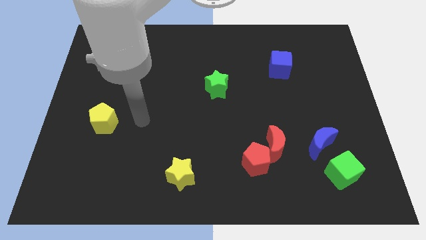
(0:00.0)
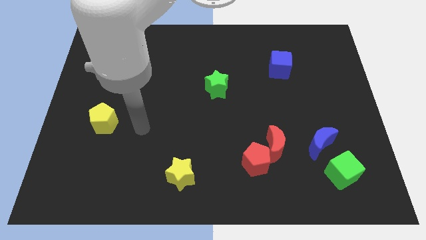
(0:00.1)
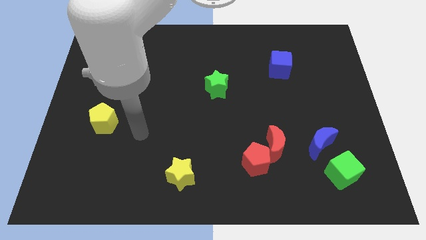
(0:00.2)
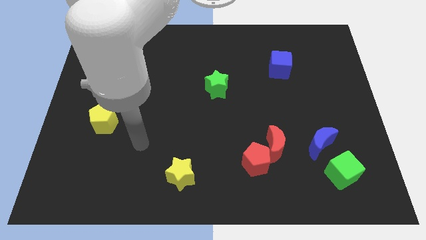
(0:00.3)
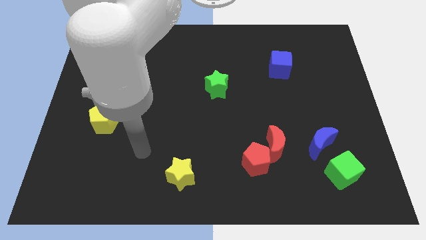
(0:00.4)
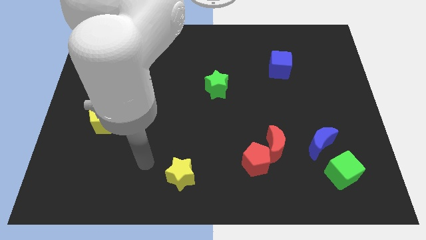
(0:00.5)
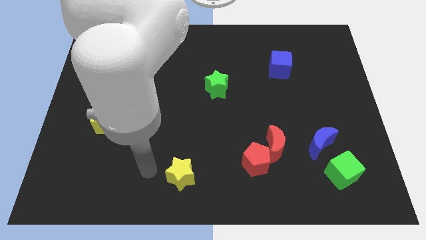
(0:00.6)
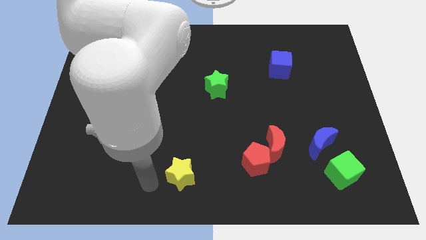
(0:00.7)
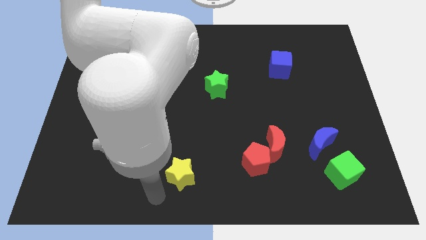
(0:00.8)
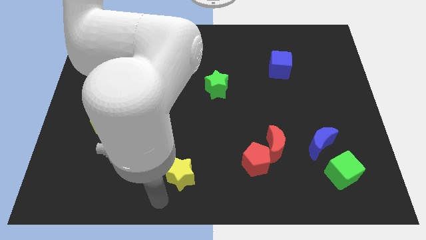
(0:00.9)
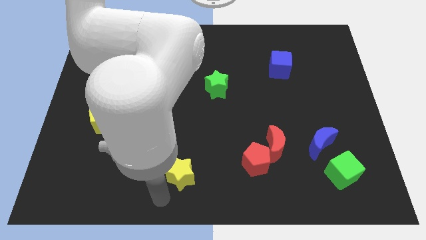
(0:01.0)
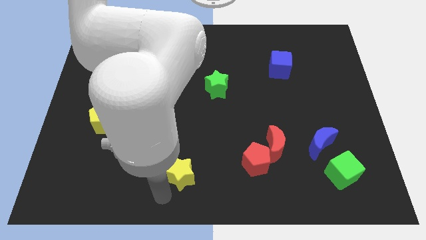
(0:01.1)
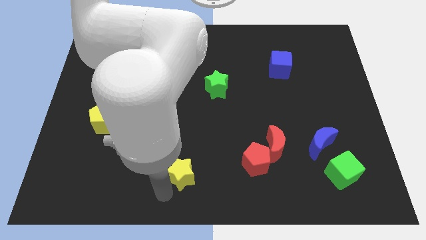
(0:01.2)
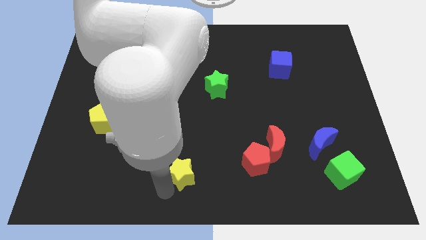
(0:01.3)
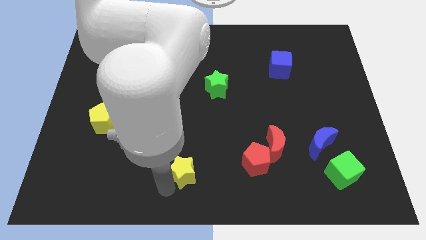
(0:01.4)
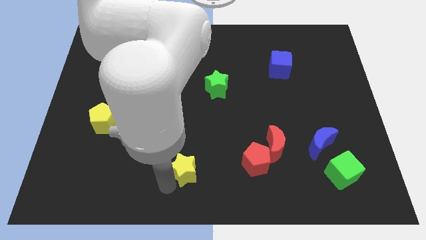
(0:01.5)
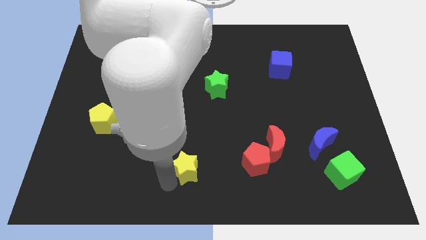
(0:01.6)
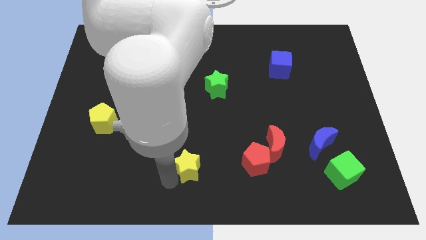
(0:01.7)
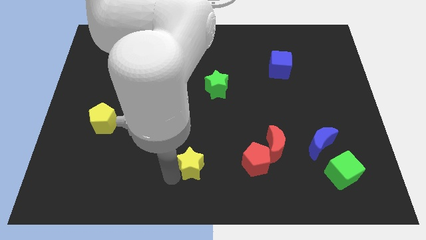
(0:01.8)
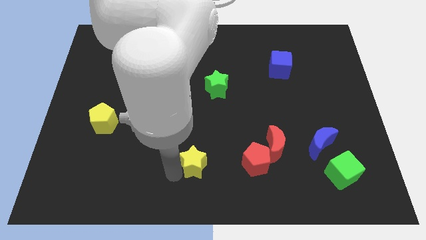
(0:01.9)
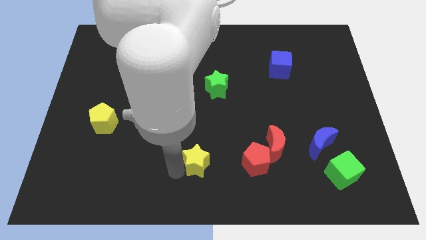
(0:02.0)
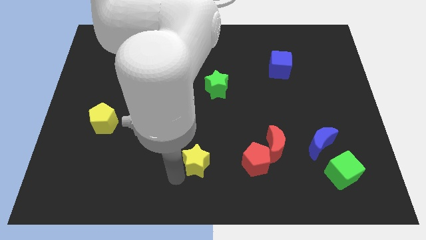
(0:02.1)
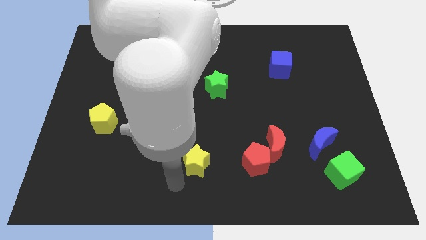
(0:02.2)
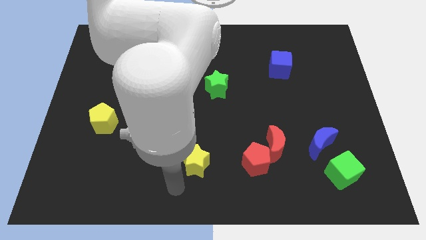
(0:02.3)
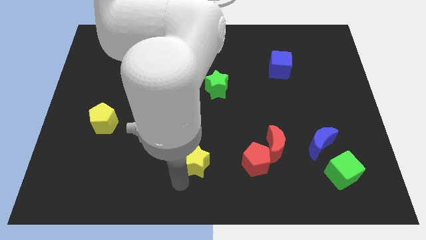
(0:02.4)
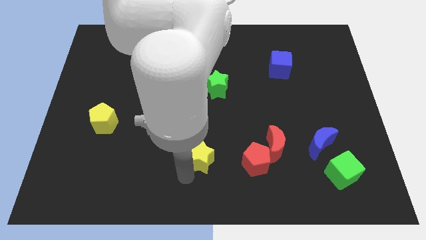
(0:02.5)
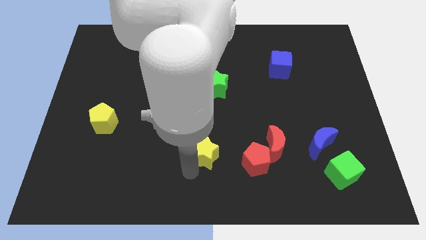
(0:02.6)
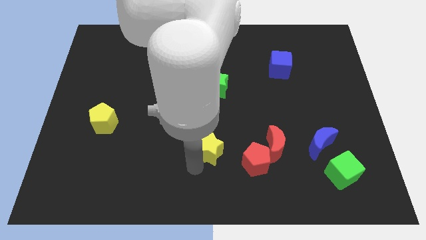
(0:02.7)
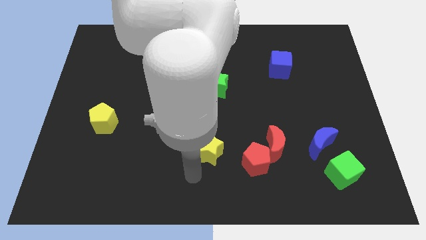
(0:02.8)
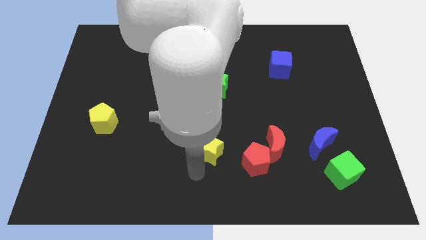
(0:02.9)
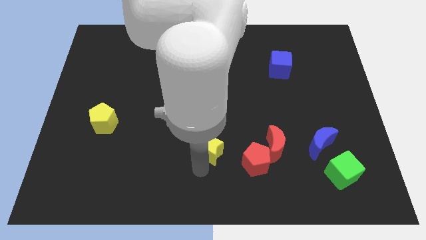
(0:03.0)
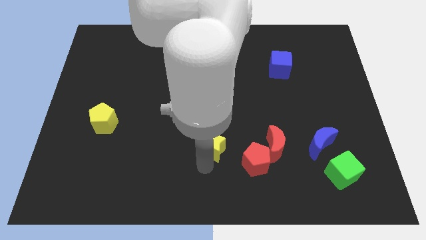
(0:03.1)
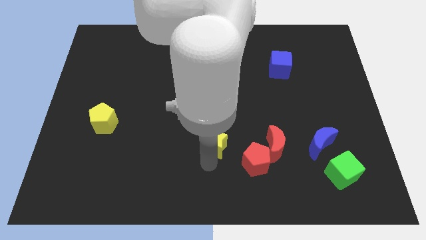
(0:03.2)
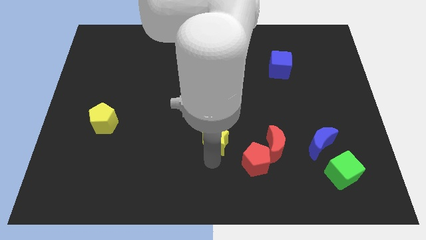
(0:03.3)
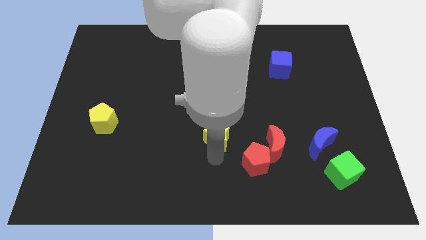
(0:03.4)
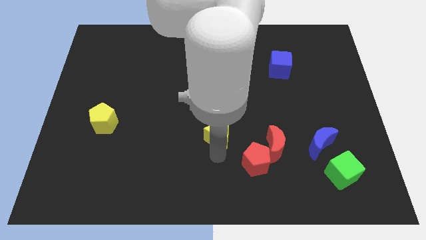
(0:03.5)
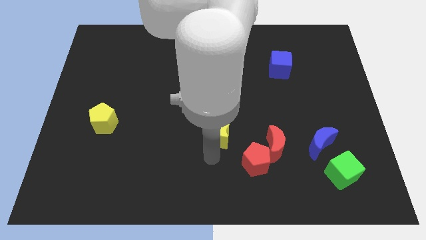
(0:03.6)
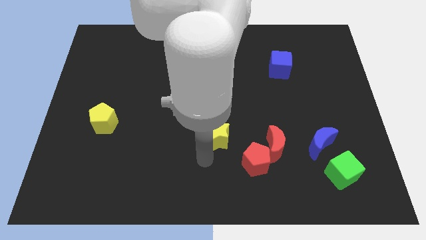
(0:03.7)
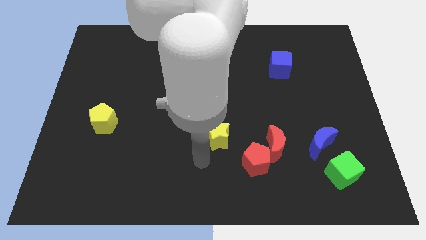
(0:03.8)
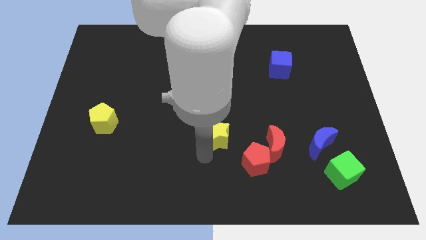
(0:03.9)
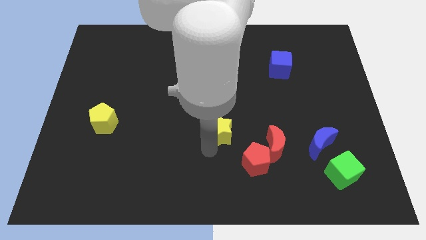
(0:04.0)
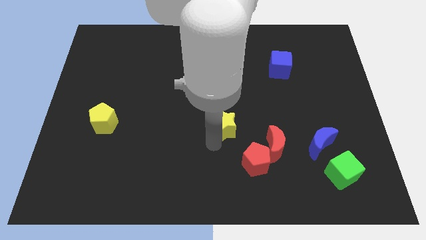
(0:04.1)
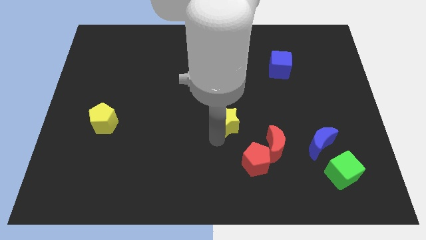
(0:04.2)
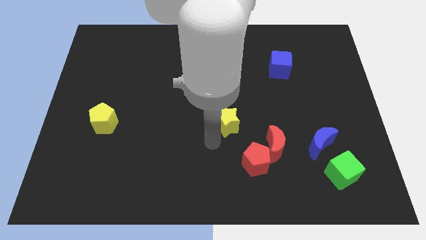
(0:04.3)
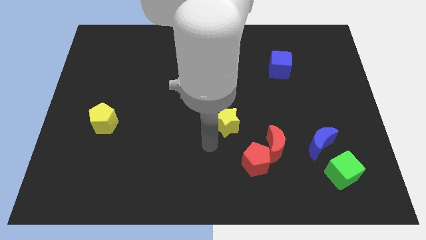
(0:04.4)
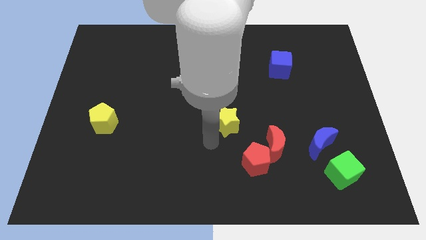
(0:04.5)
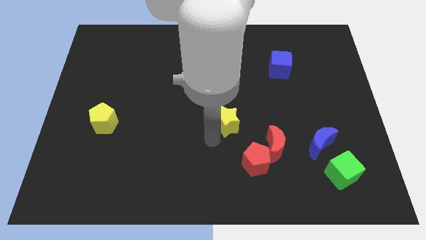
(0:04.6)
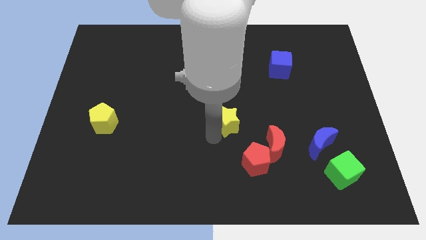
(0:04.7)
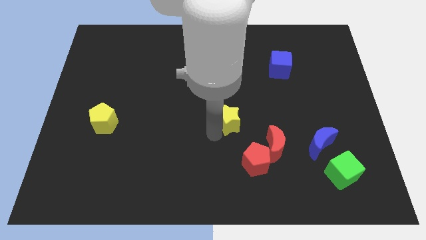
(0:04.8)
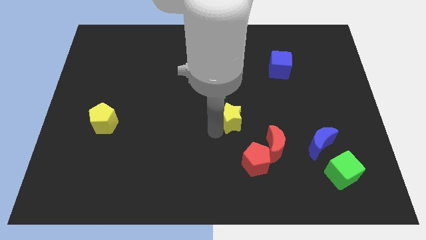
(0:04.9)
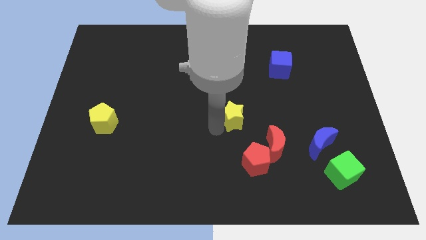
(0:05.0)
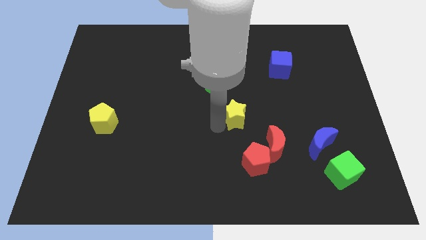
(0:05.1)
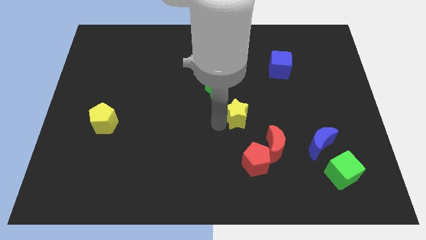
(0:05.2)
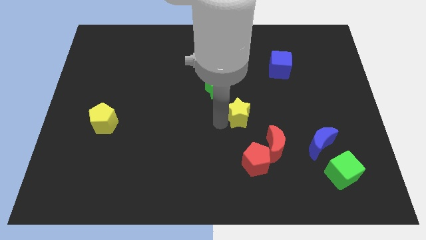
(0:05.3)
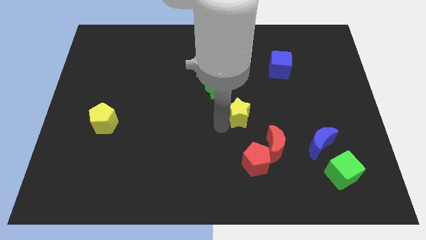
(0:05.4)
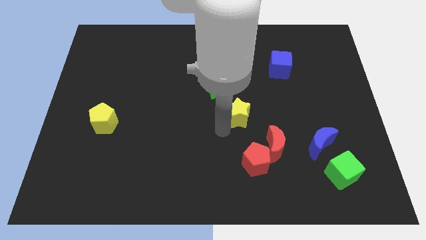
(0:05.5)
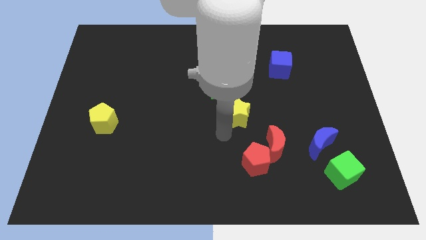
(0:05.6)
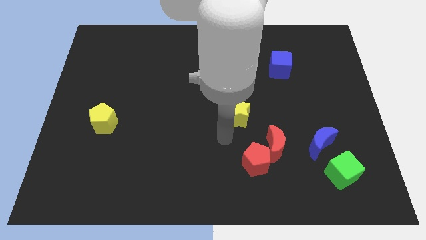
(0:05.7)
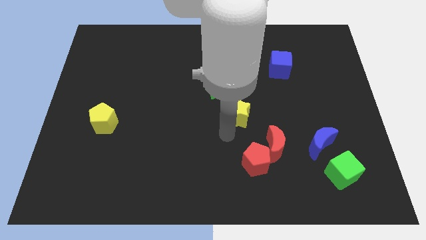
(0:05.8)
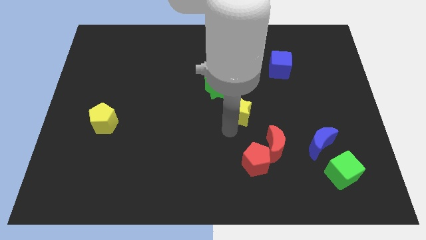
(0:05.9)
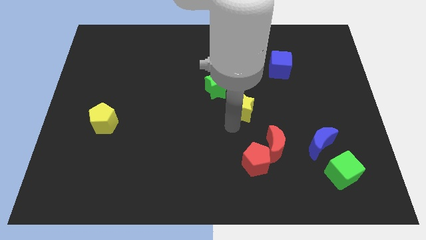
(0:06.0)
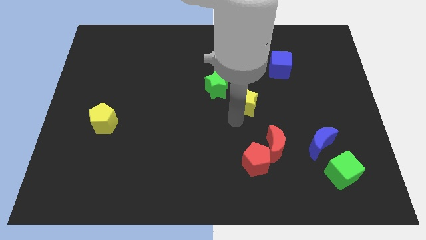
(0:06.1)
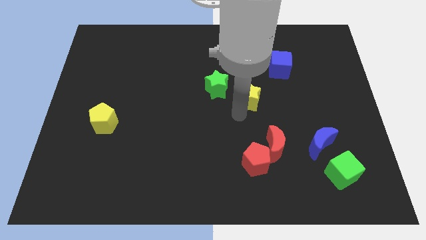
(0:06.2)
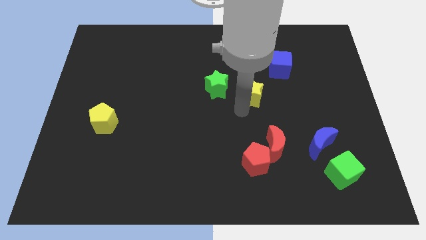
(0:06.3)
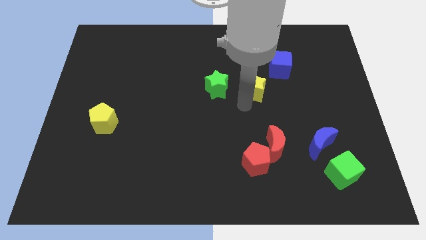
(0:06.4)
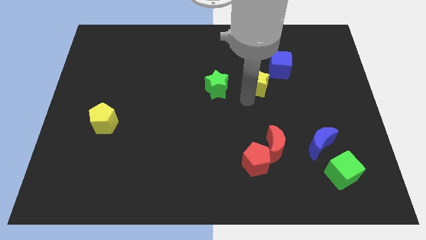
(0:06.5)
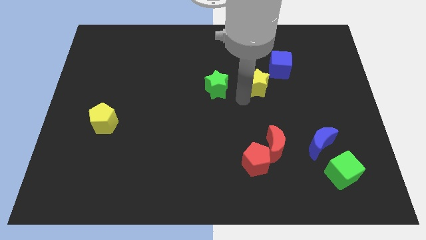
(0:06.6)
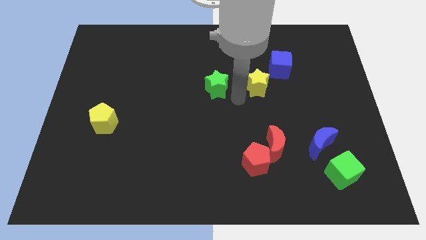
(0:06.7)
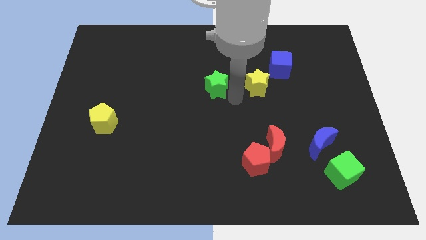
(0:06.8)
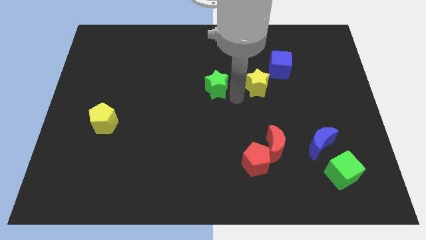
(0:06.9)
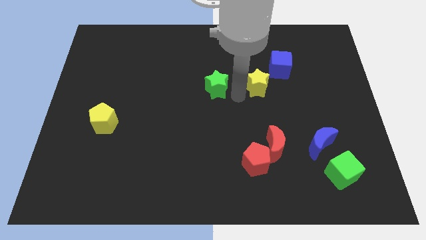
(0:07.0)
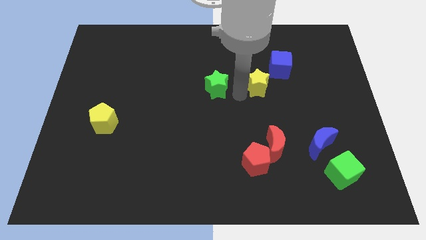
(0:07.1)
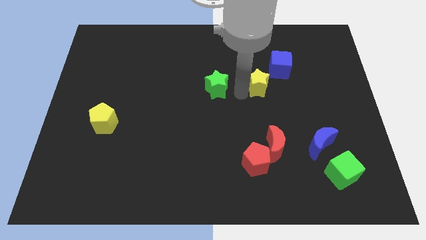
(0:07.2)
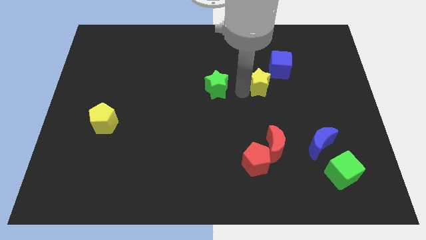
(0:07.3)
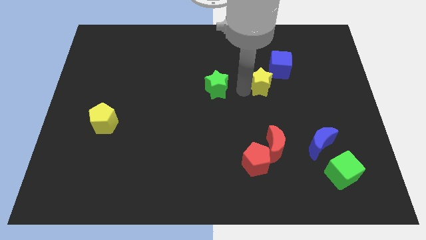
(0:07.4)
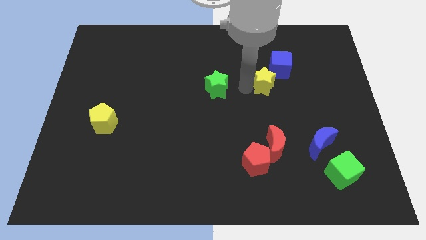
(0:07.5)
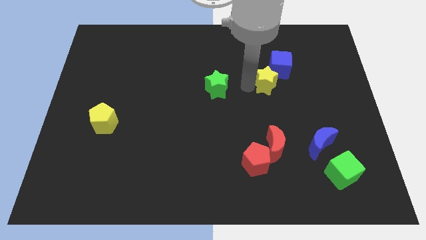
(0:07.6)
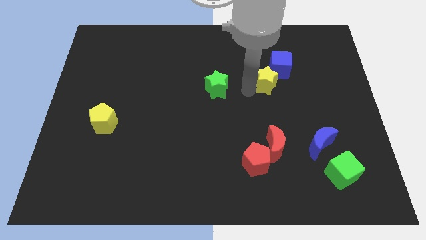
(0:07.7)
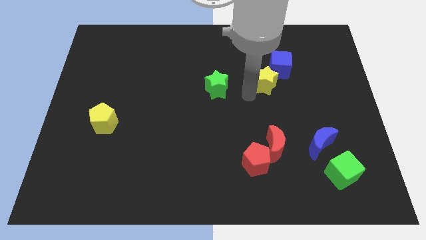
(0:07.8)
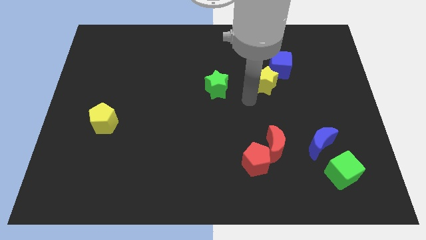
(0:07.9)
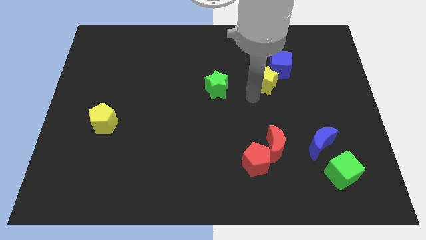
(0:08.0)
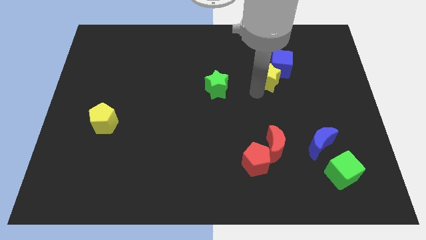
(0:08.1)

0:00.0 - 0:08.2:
push the yellow star close to the blue cube
